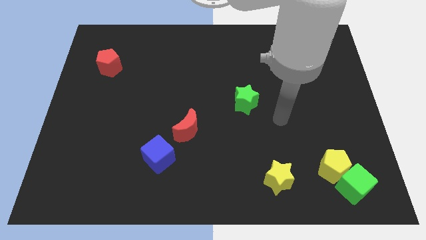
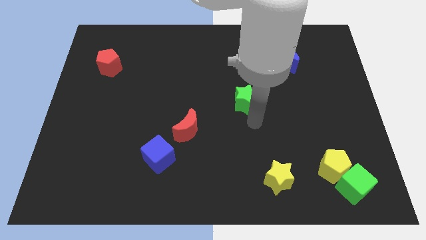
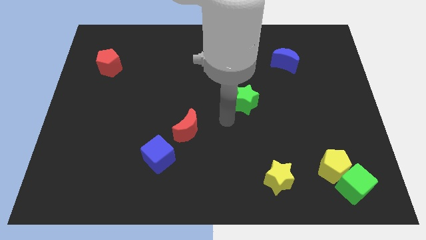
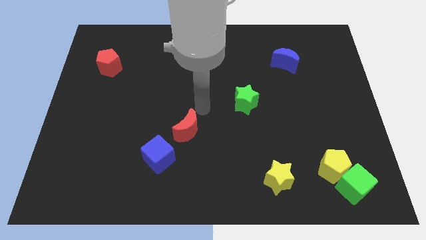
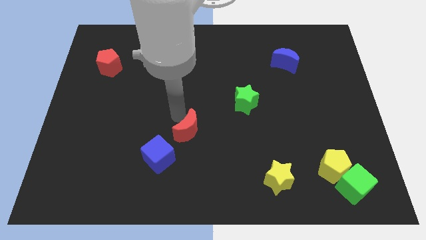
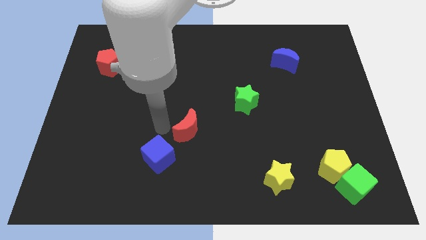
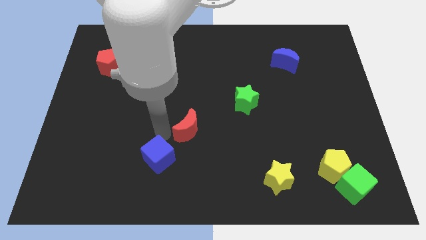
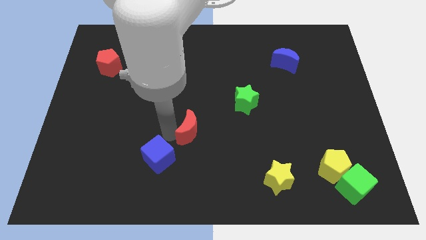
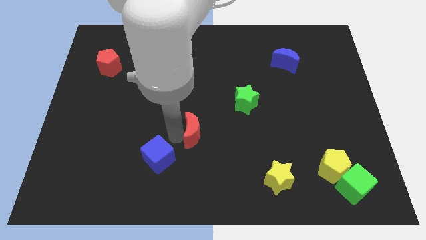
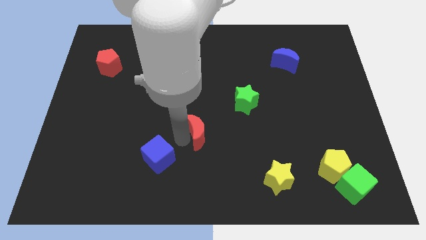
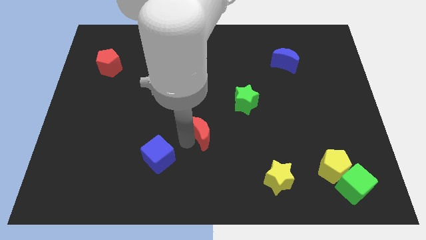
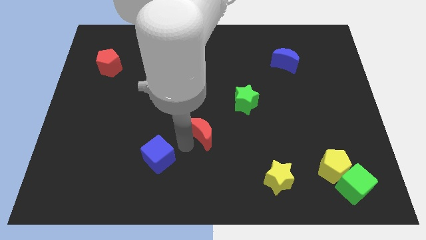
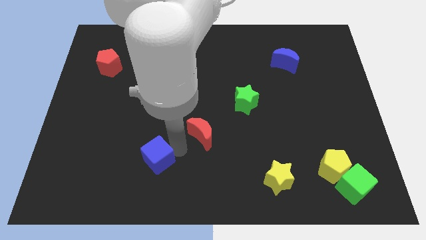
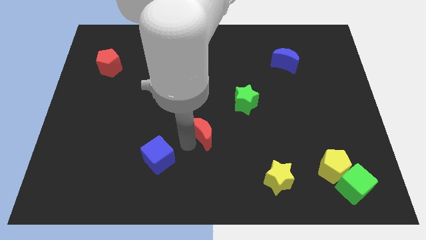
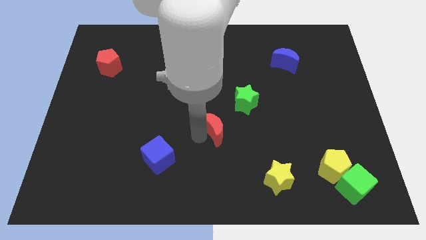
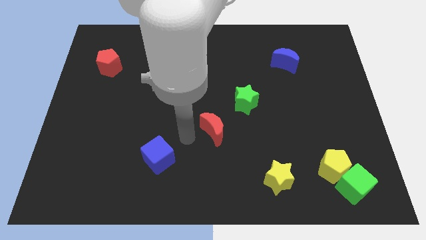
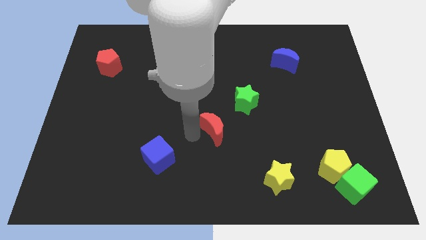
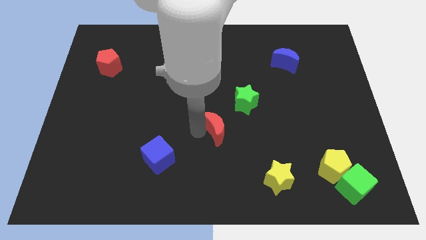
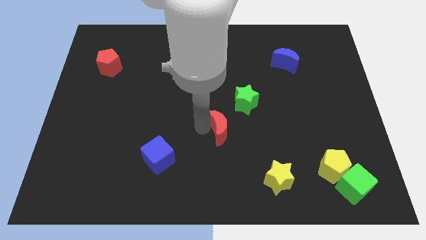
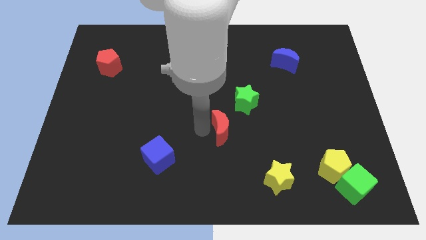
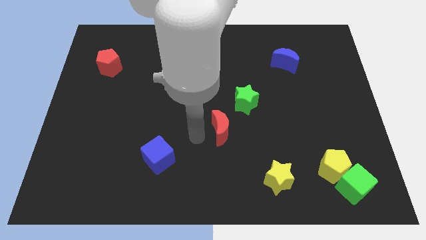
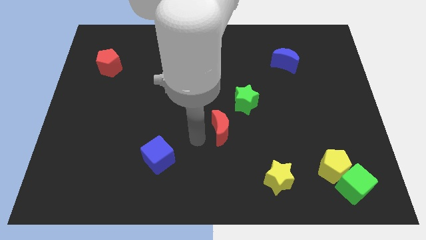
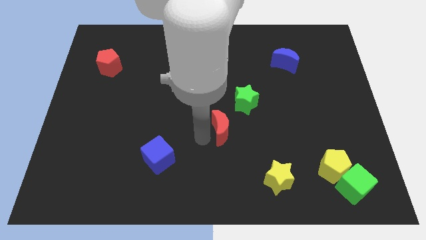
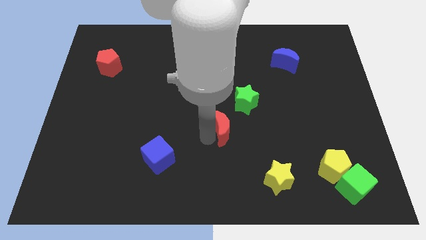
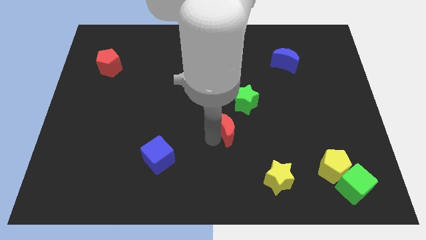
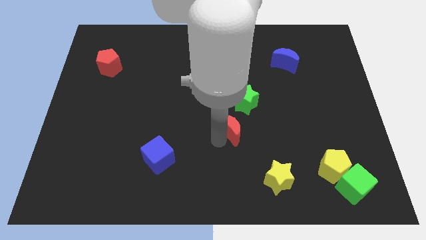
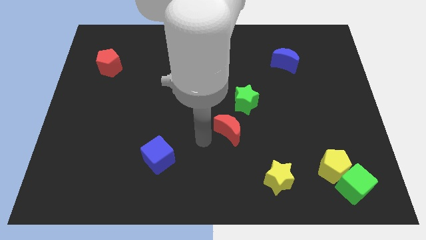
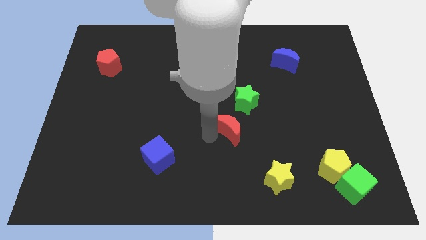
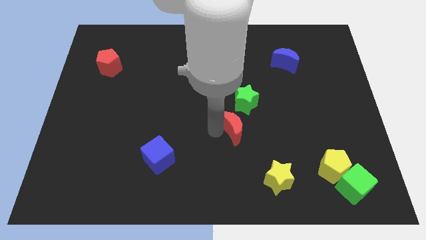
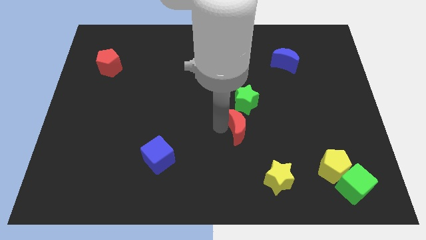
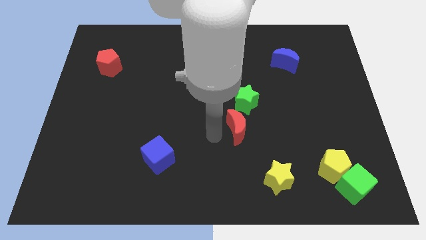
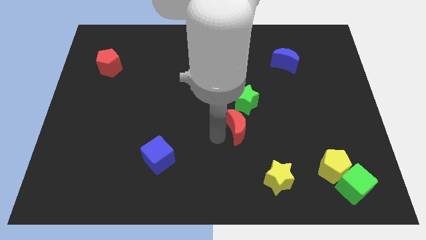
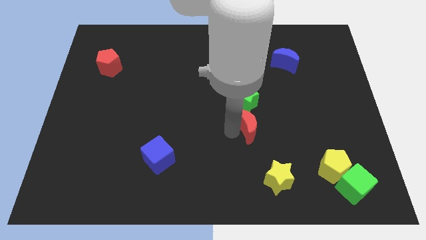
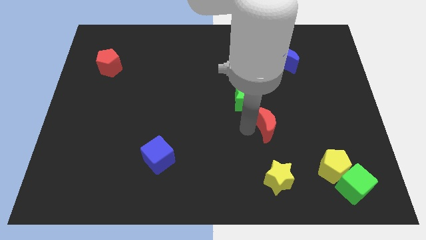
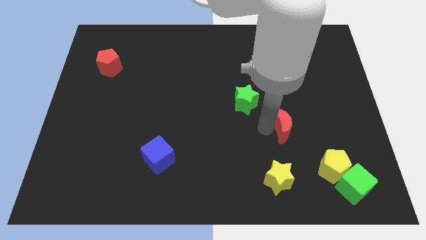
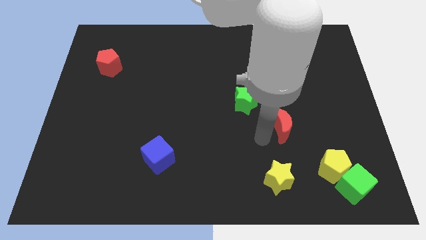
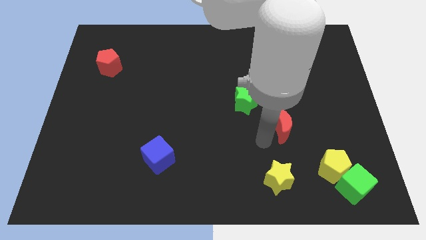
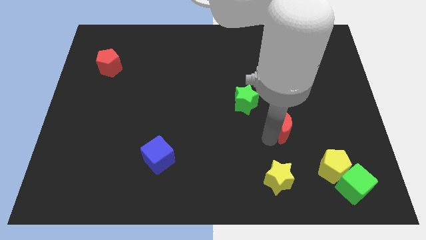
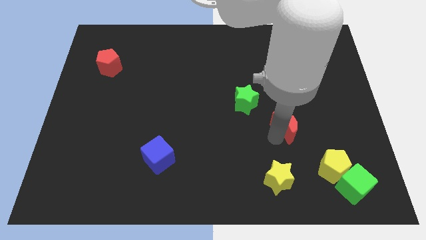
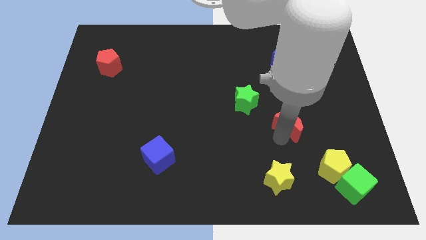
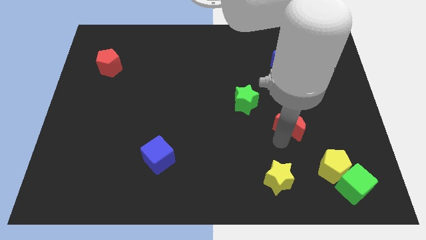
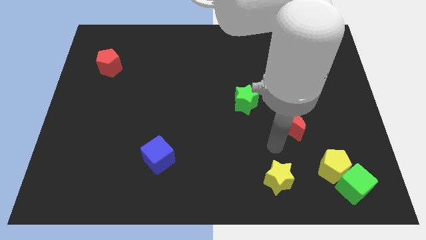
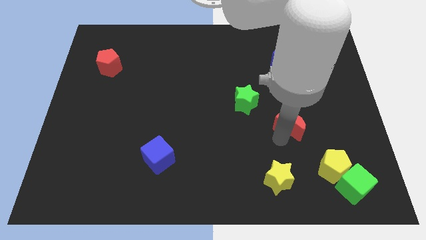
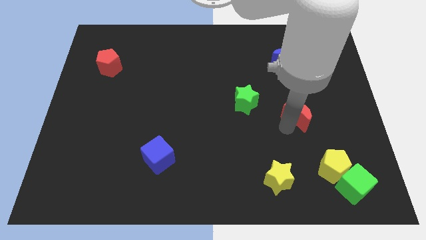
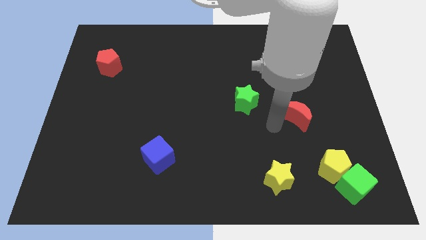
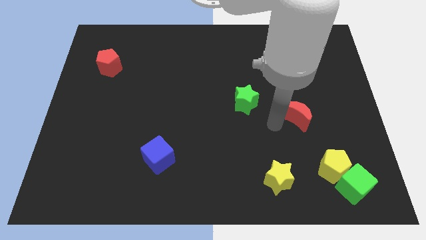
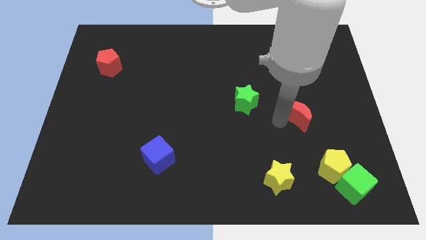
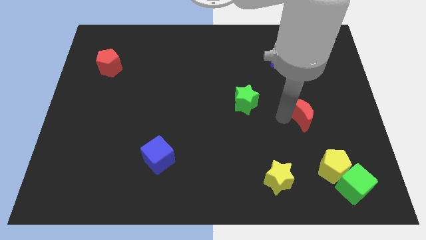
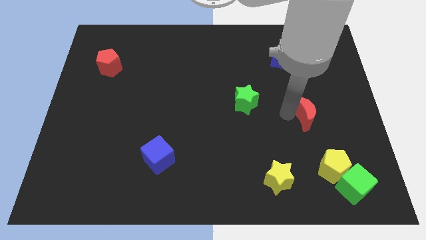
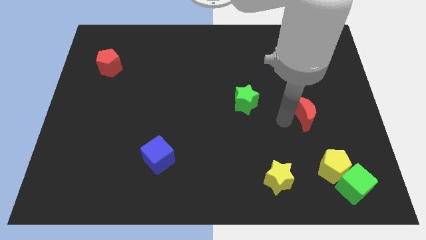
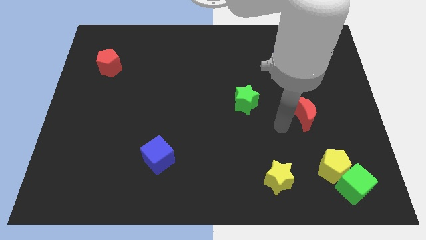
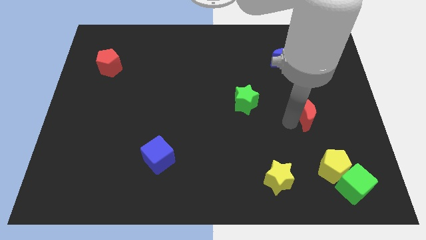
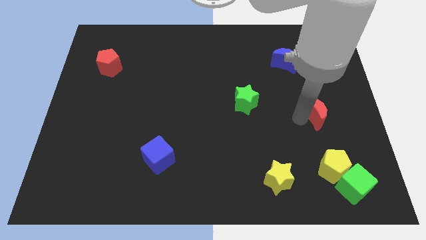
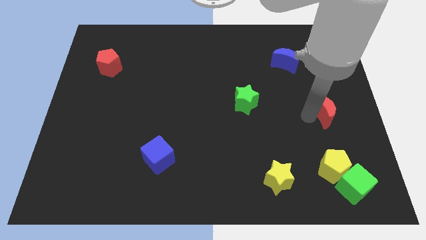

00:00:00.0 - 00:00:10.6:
push the red moon to the right side
